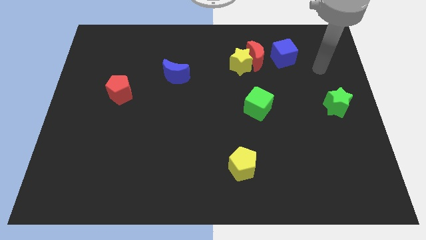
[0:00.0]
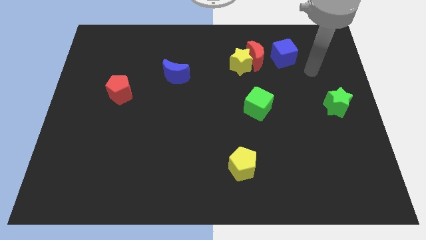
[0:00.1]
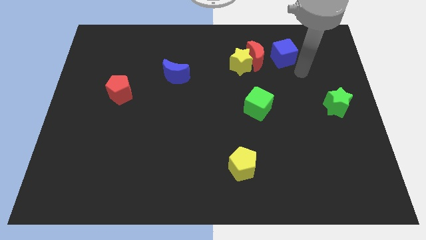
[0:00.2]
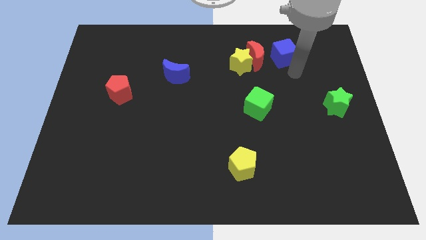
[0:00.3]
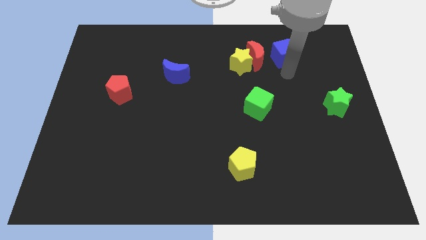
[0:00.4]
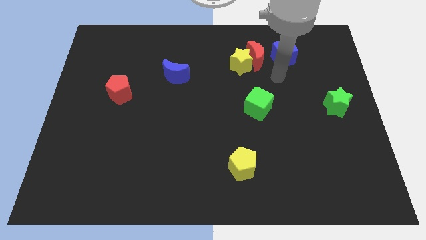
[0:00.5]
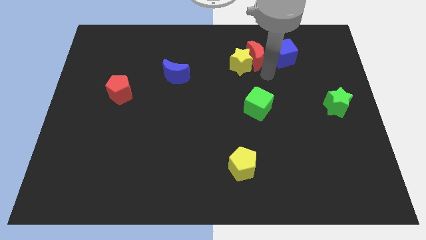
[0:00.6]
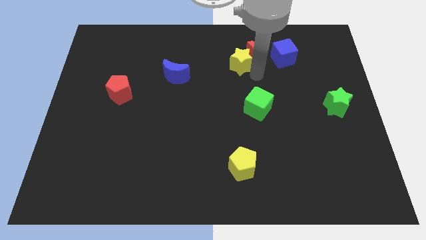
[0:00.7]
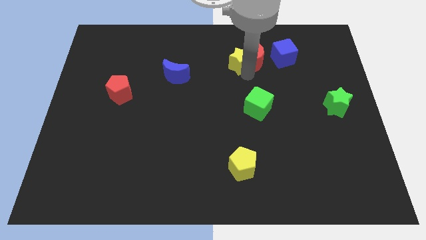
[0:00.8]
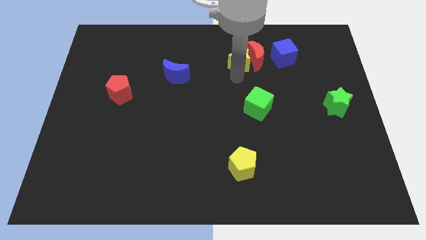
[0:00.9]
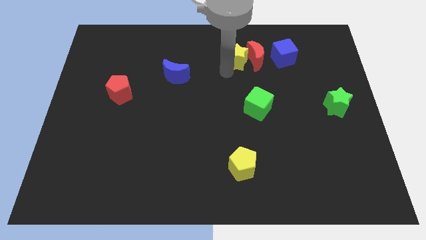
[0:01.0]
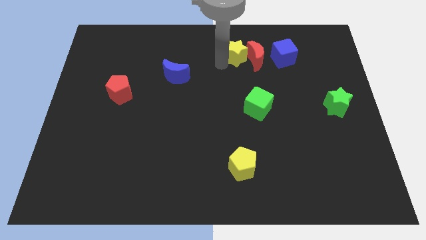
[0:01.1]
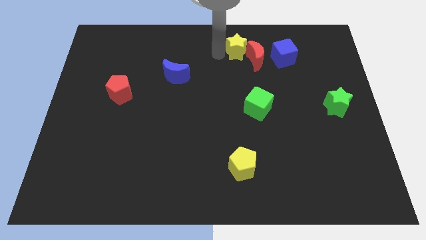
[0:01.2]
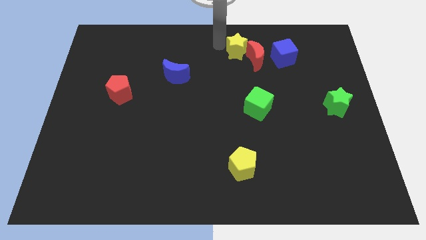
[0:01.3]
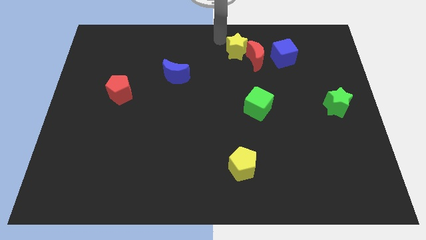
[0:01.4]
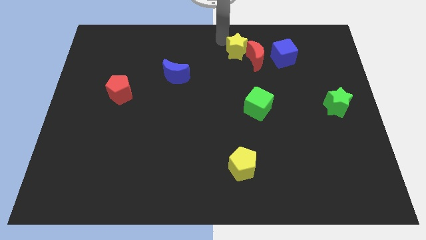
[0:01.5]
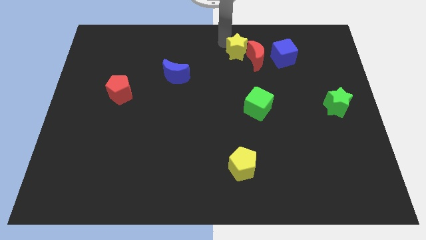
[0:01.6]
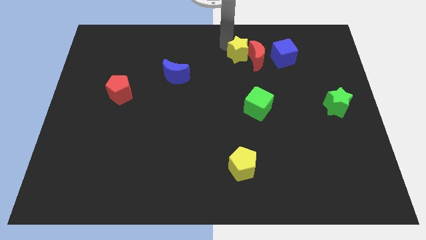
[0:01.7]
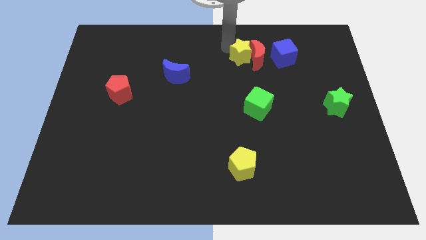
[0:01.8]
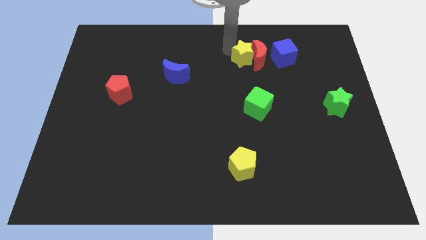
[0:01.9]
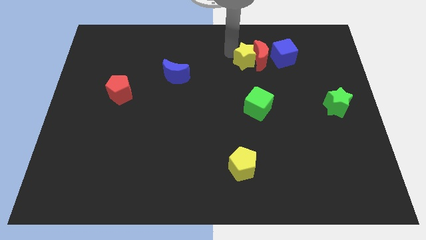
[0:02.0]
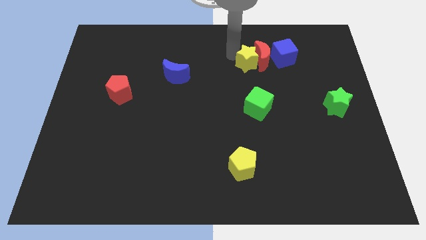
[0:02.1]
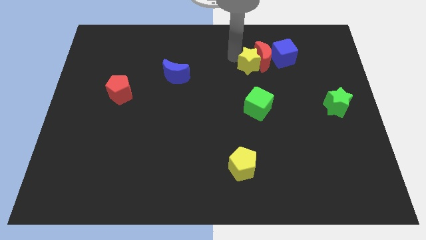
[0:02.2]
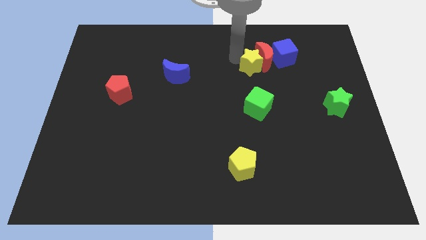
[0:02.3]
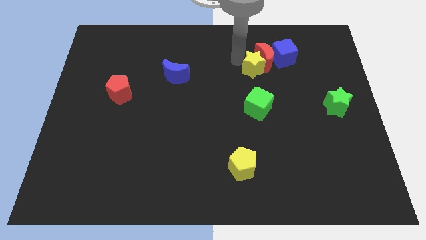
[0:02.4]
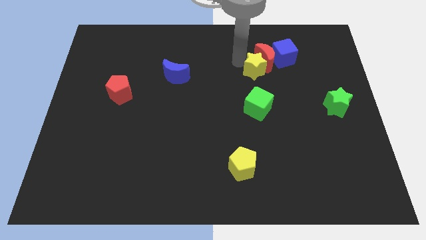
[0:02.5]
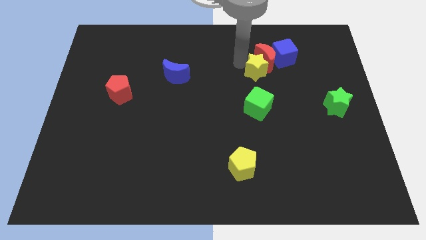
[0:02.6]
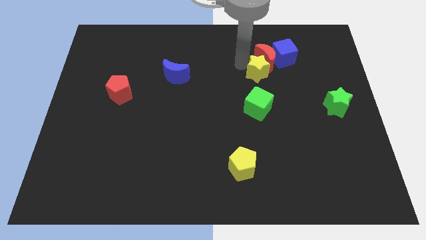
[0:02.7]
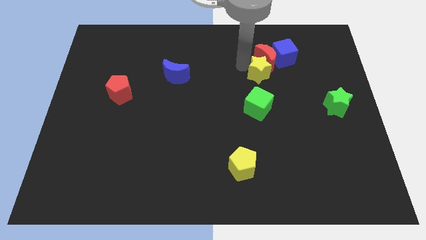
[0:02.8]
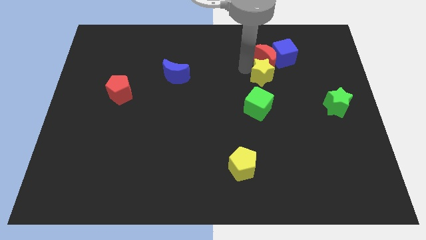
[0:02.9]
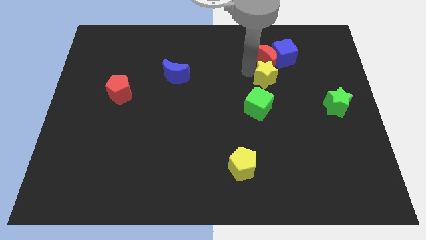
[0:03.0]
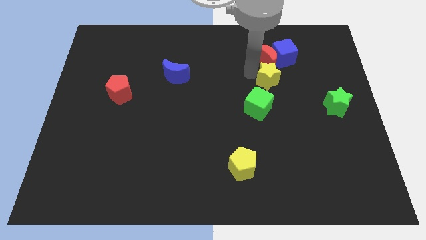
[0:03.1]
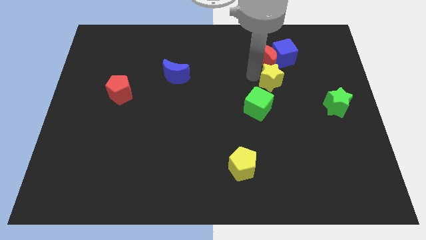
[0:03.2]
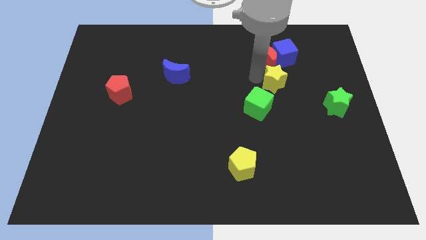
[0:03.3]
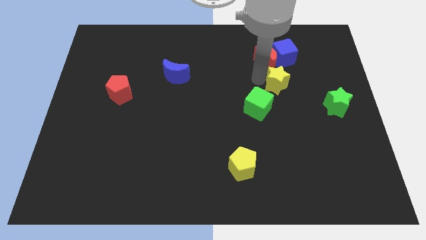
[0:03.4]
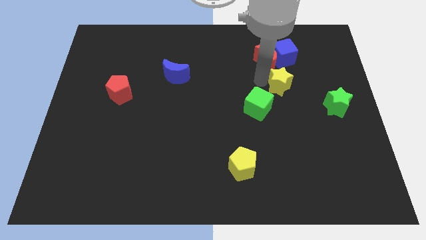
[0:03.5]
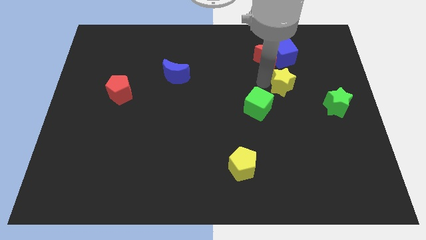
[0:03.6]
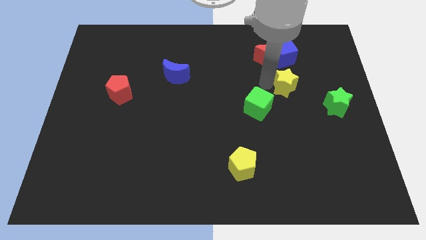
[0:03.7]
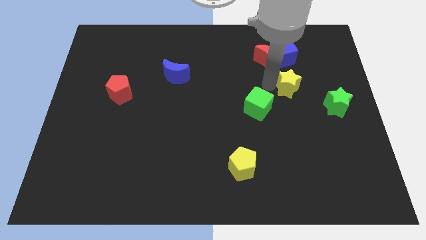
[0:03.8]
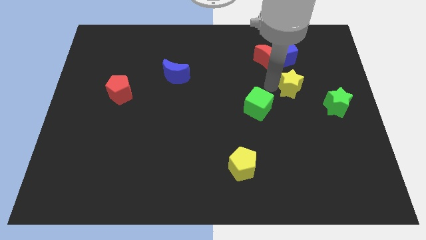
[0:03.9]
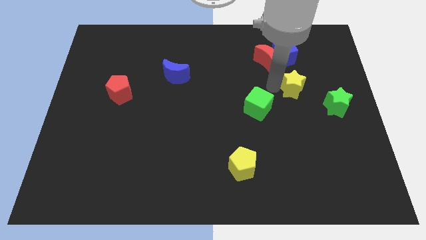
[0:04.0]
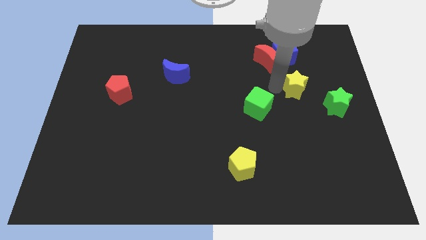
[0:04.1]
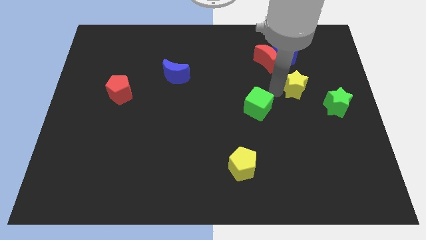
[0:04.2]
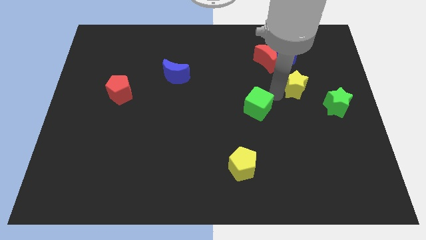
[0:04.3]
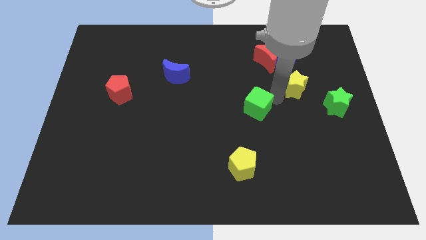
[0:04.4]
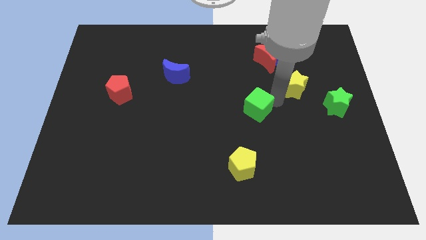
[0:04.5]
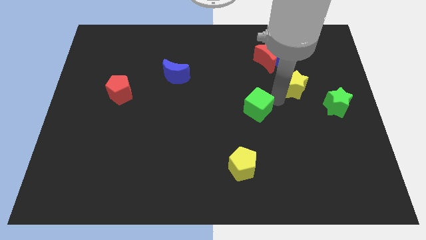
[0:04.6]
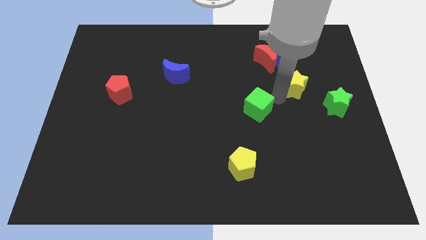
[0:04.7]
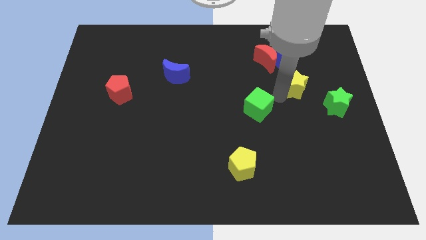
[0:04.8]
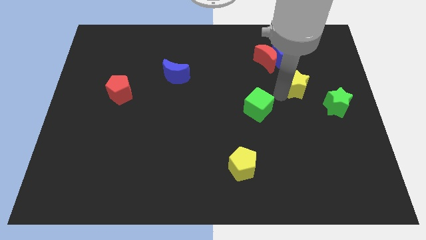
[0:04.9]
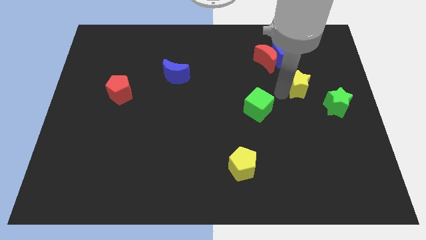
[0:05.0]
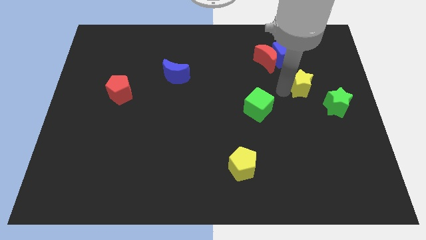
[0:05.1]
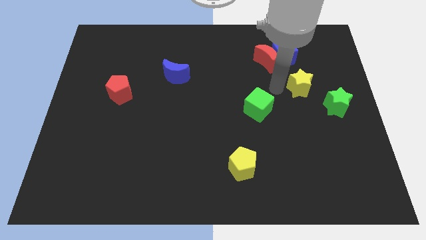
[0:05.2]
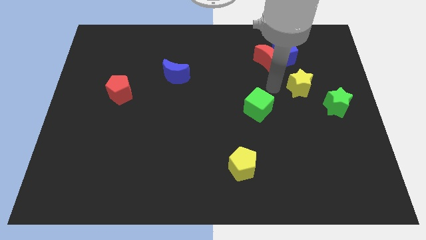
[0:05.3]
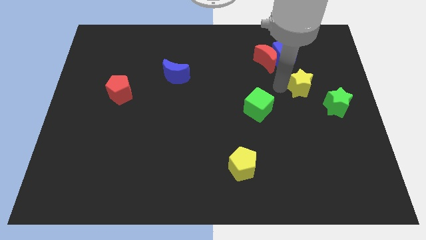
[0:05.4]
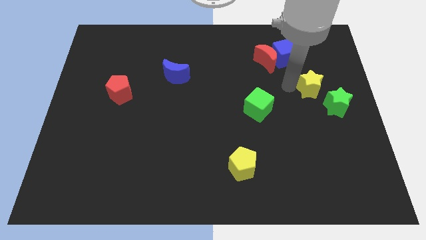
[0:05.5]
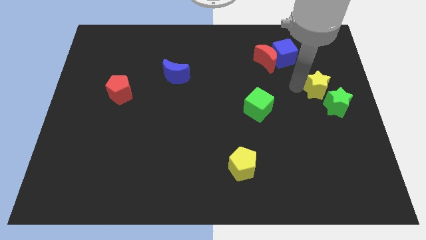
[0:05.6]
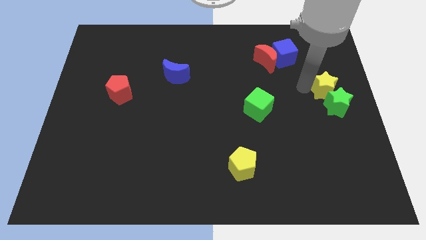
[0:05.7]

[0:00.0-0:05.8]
move the yellow star to the center right
